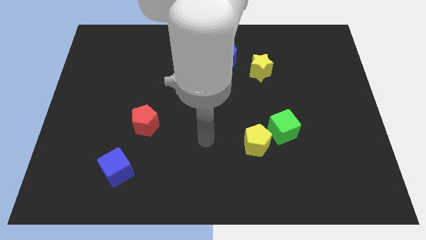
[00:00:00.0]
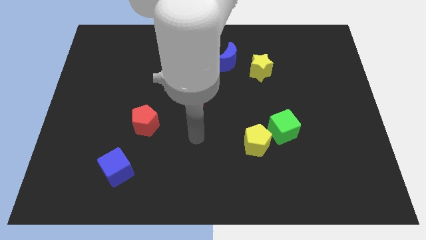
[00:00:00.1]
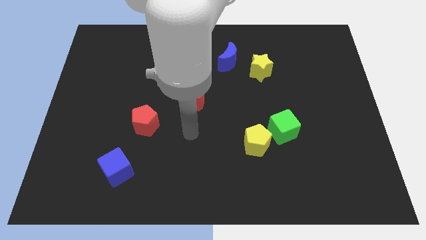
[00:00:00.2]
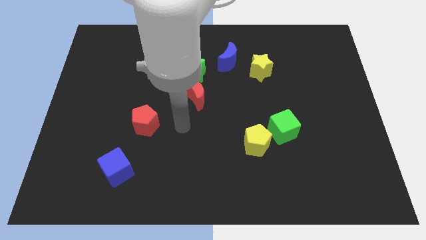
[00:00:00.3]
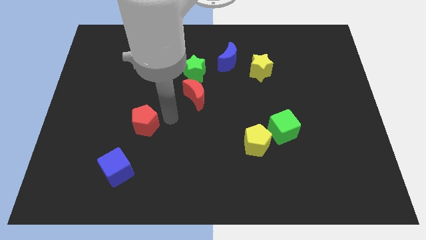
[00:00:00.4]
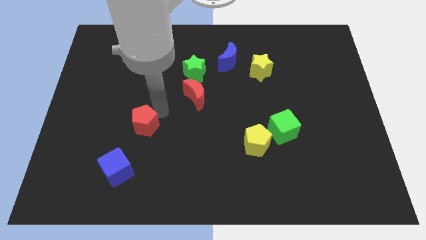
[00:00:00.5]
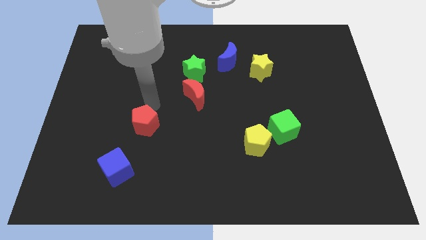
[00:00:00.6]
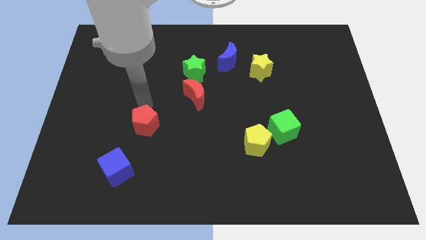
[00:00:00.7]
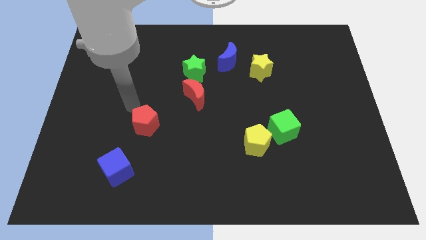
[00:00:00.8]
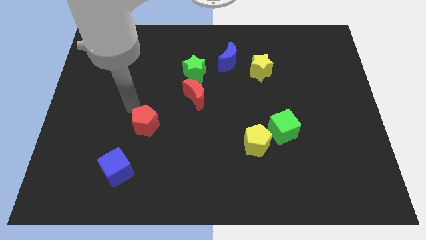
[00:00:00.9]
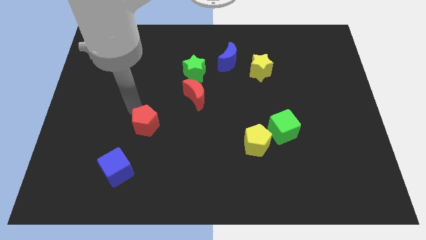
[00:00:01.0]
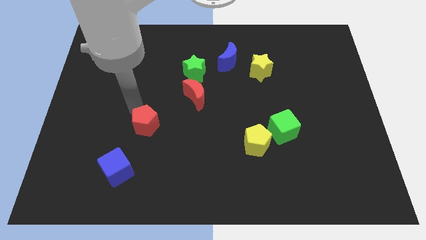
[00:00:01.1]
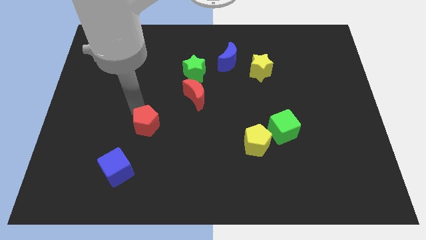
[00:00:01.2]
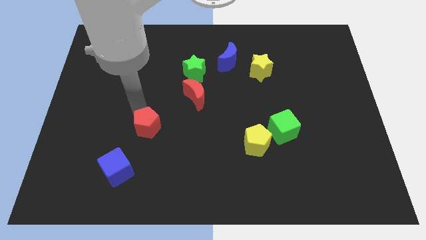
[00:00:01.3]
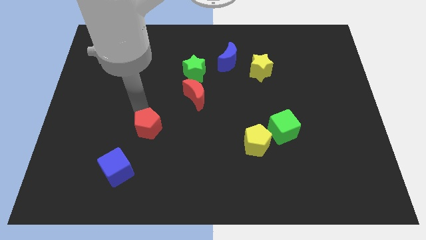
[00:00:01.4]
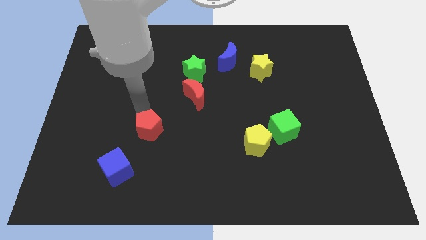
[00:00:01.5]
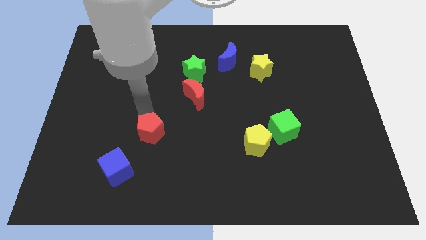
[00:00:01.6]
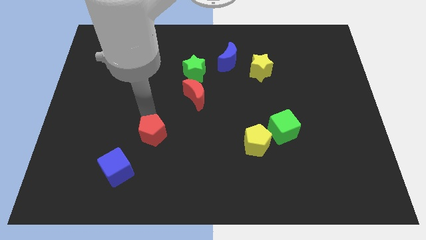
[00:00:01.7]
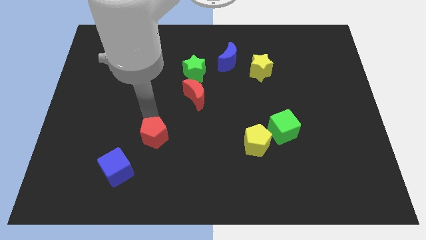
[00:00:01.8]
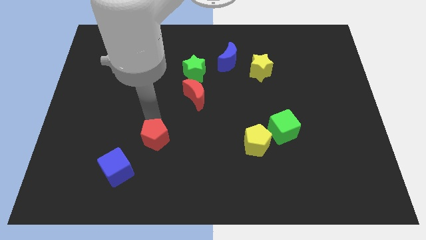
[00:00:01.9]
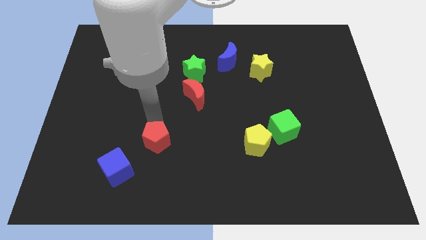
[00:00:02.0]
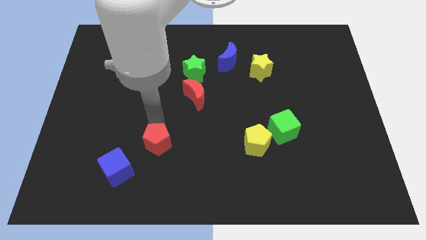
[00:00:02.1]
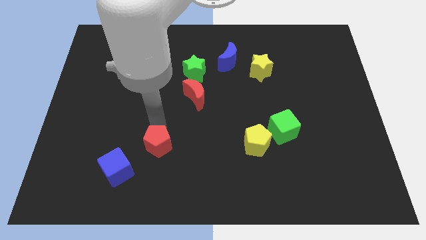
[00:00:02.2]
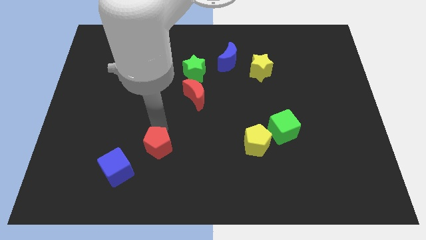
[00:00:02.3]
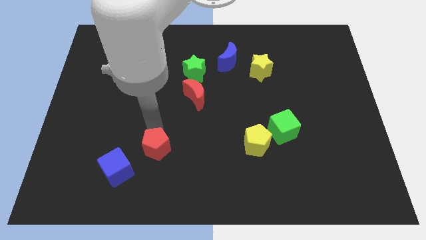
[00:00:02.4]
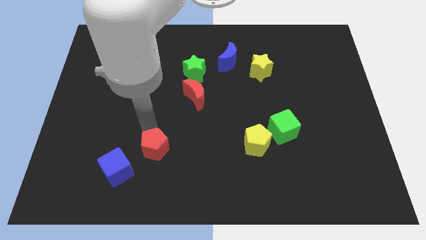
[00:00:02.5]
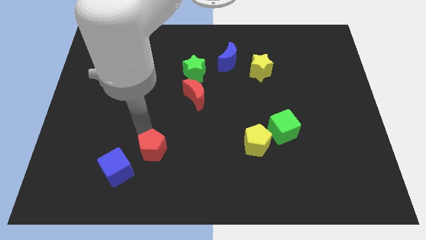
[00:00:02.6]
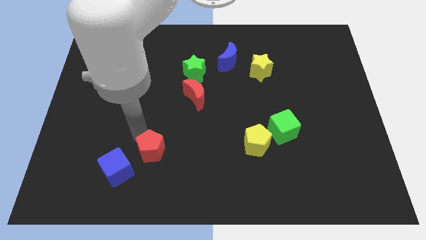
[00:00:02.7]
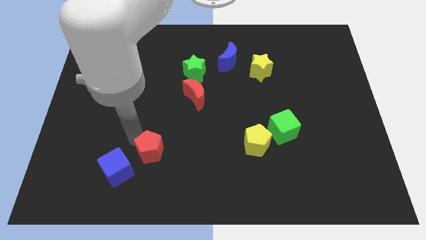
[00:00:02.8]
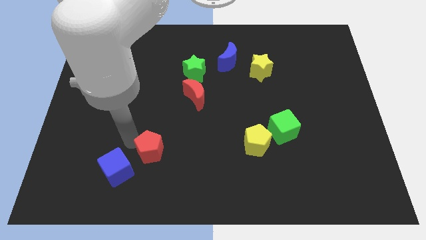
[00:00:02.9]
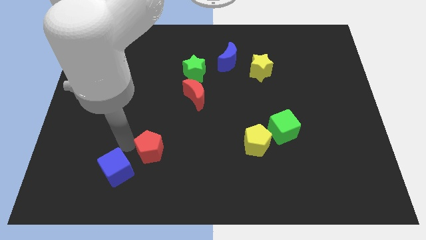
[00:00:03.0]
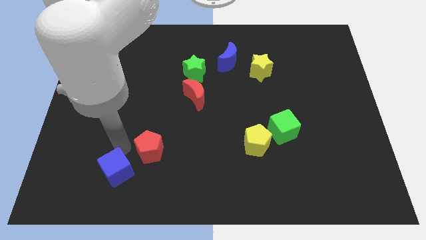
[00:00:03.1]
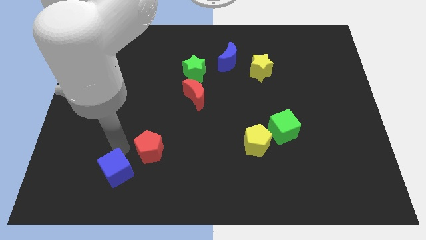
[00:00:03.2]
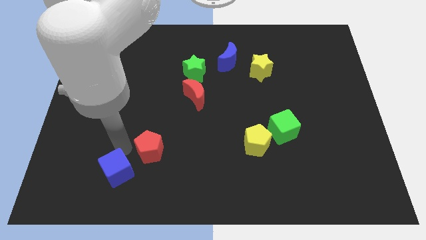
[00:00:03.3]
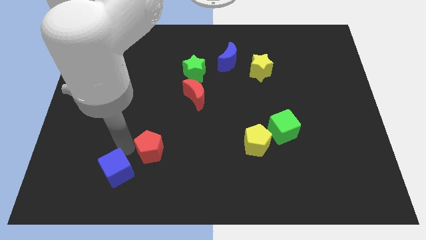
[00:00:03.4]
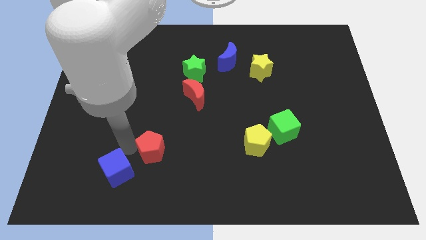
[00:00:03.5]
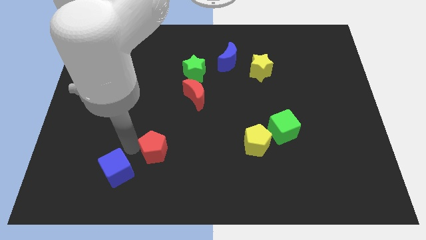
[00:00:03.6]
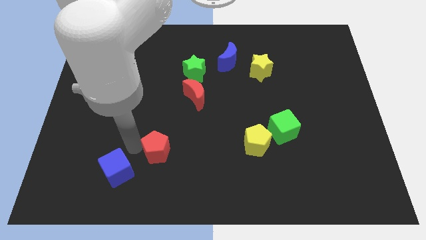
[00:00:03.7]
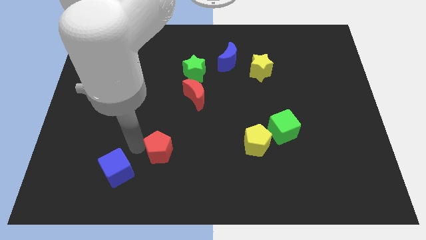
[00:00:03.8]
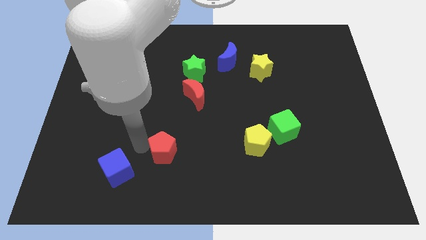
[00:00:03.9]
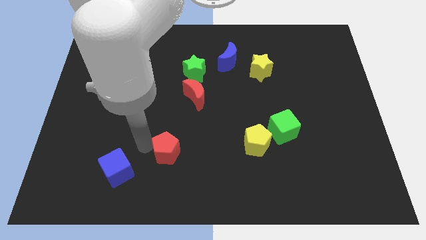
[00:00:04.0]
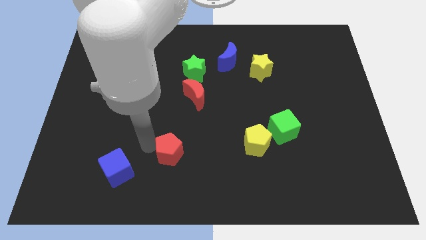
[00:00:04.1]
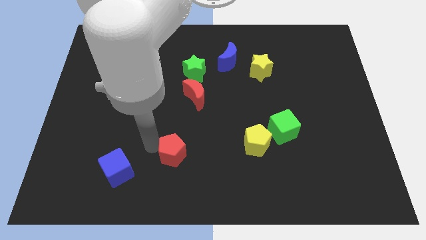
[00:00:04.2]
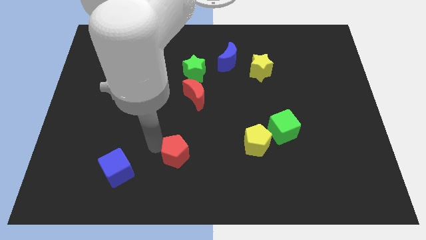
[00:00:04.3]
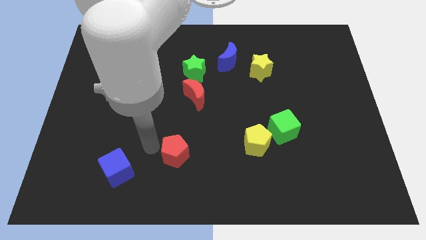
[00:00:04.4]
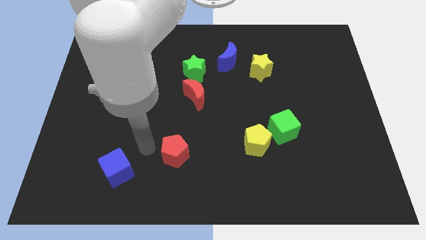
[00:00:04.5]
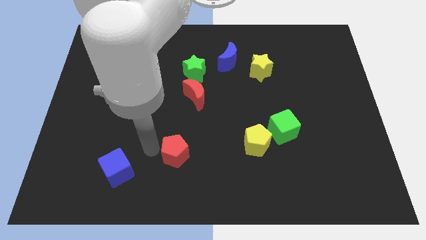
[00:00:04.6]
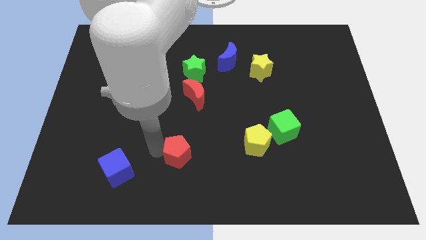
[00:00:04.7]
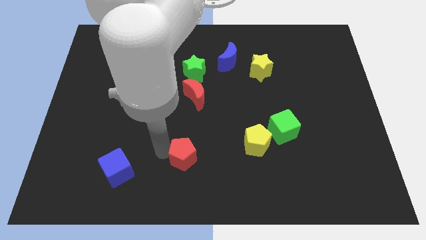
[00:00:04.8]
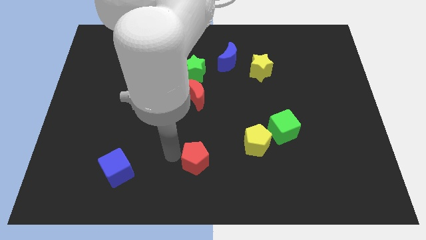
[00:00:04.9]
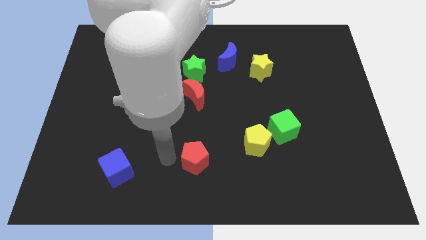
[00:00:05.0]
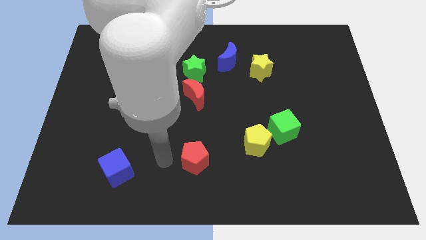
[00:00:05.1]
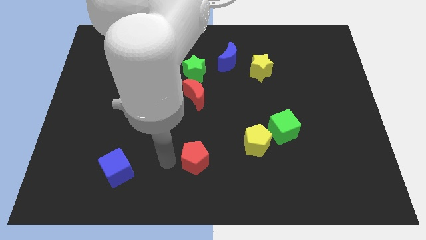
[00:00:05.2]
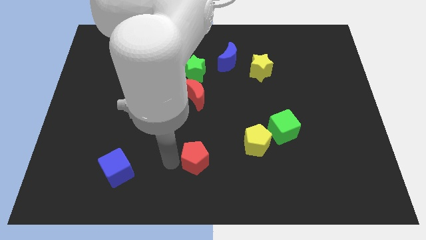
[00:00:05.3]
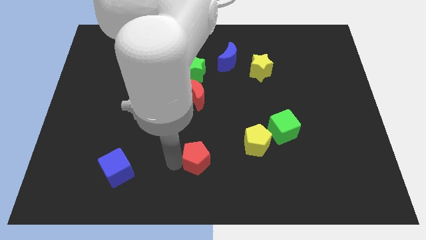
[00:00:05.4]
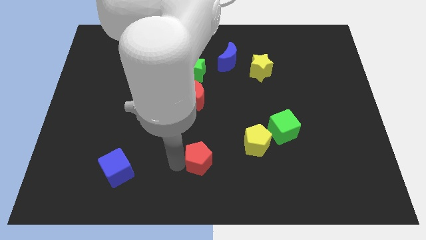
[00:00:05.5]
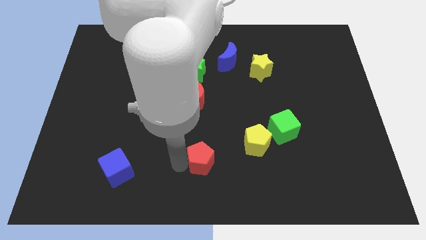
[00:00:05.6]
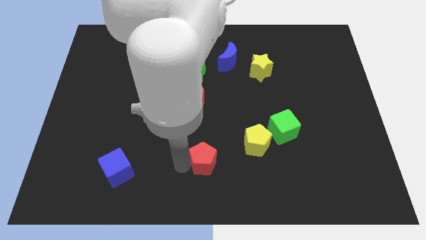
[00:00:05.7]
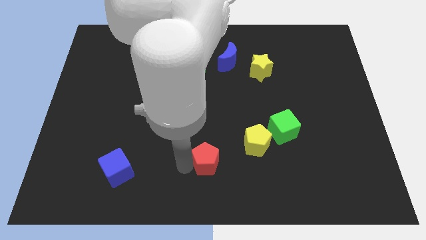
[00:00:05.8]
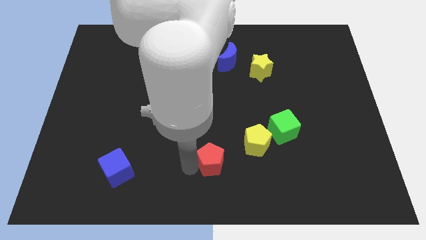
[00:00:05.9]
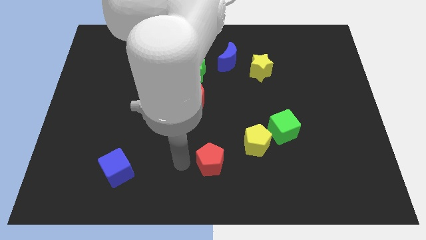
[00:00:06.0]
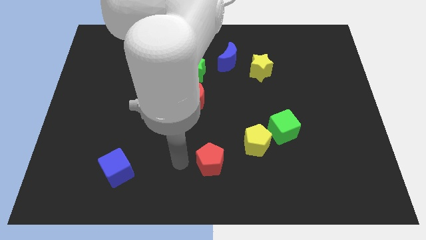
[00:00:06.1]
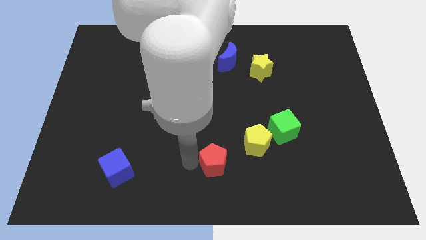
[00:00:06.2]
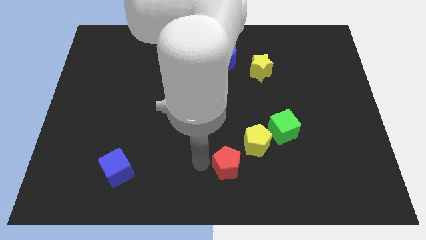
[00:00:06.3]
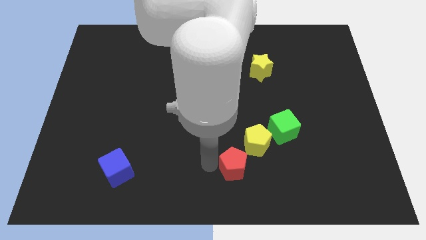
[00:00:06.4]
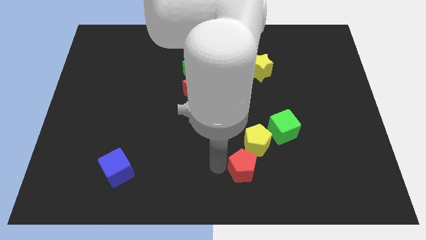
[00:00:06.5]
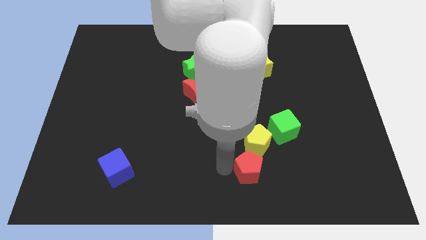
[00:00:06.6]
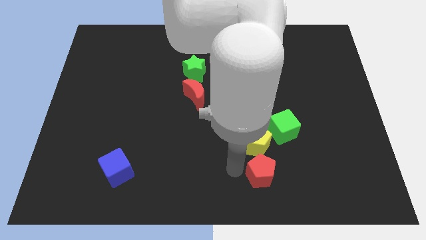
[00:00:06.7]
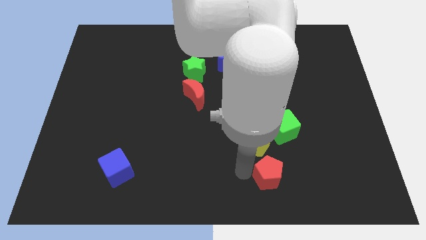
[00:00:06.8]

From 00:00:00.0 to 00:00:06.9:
push the red pentagon below the green cube

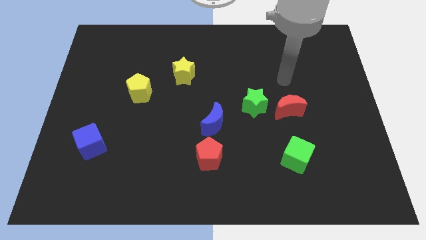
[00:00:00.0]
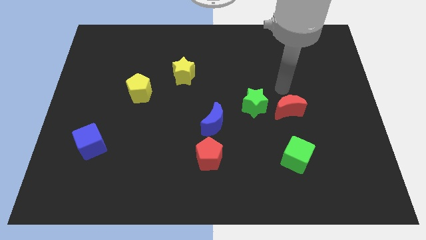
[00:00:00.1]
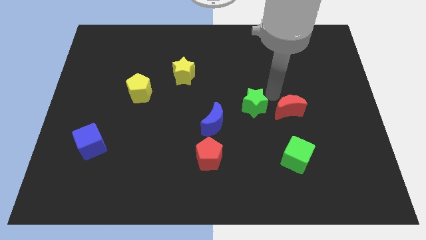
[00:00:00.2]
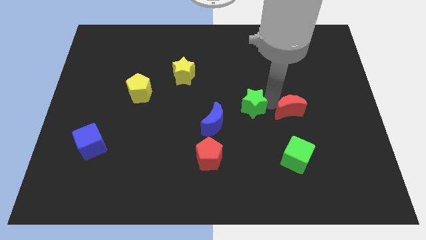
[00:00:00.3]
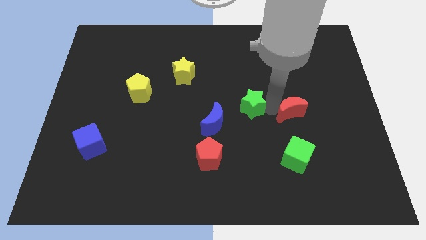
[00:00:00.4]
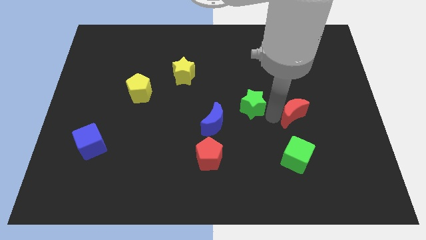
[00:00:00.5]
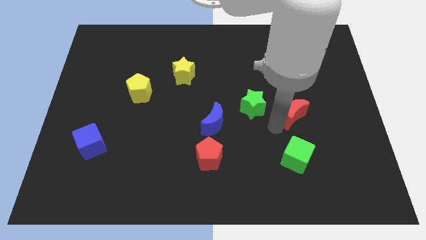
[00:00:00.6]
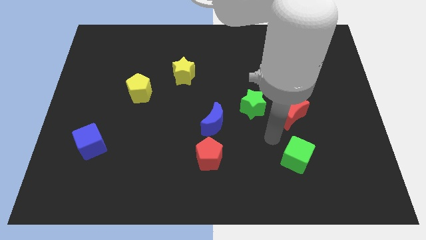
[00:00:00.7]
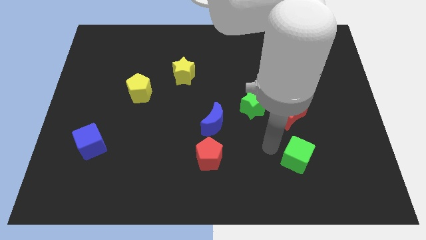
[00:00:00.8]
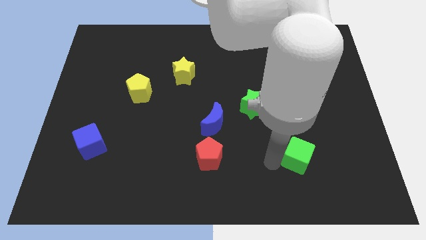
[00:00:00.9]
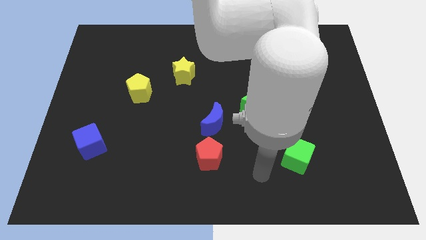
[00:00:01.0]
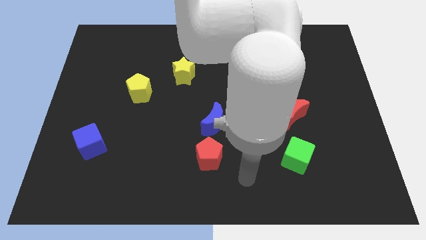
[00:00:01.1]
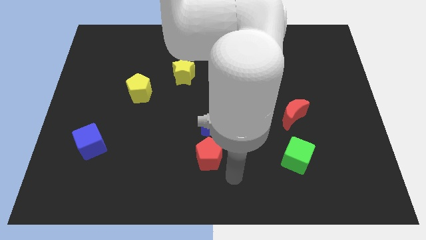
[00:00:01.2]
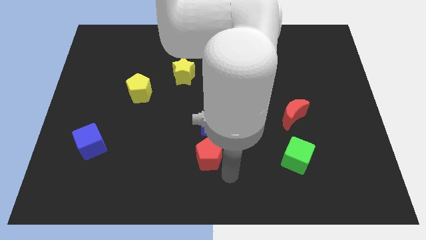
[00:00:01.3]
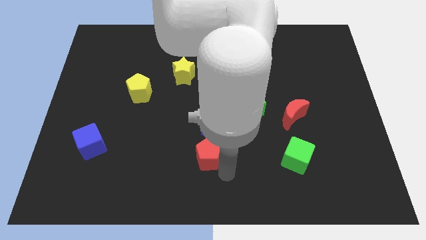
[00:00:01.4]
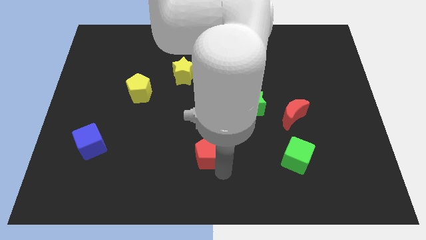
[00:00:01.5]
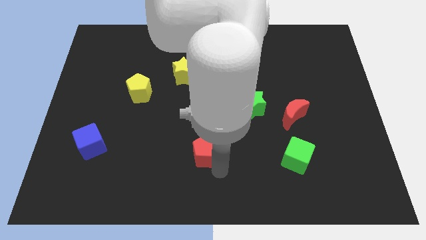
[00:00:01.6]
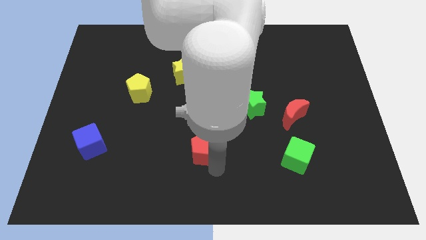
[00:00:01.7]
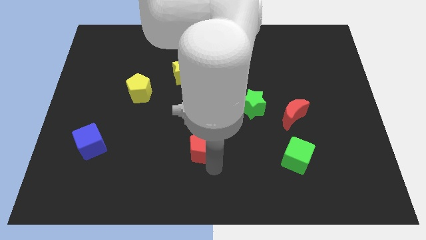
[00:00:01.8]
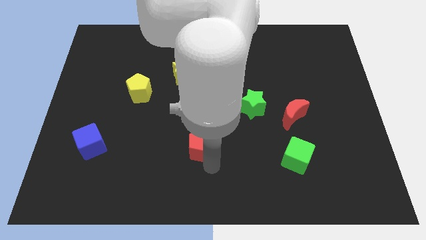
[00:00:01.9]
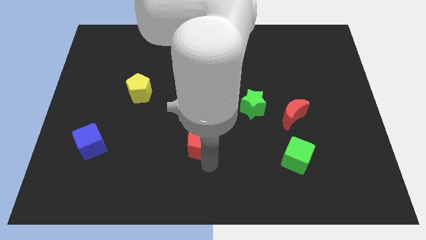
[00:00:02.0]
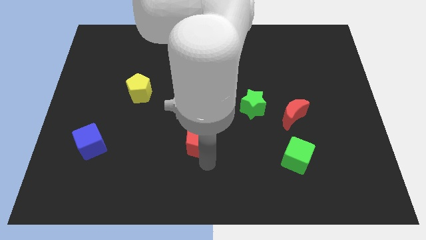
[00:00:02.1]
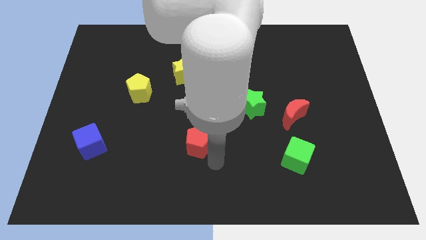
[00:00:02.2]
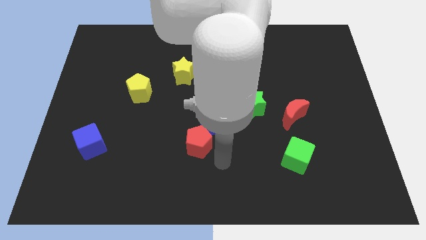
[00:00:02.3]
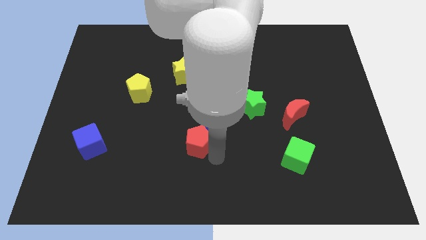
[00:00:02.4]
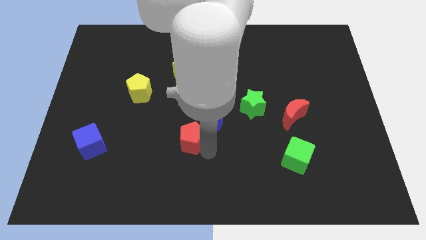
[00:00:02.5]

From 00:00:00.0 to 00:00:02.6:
push the red pentagon to the left side of the blue moon
